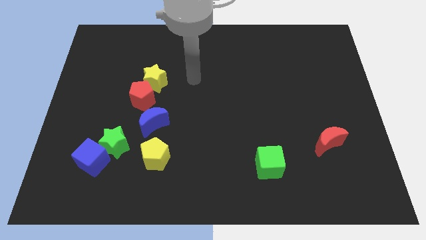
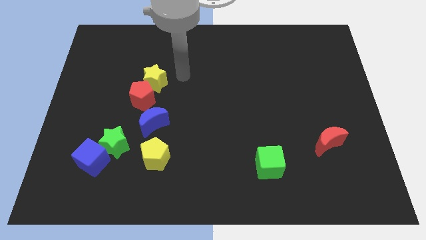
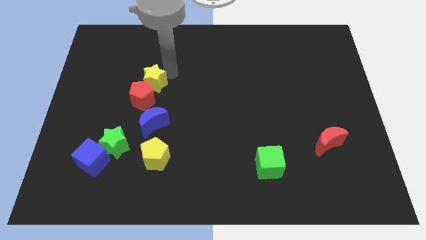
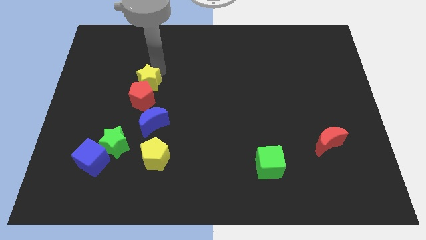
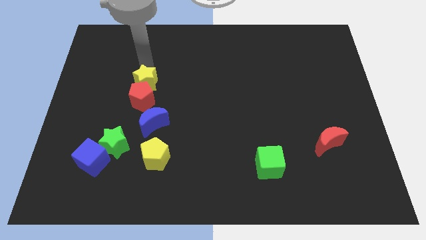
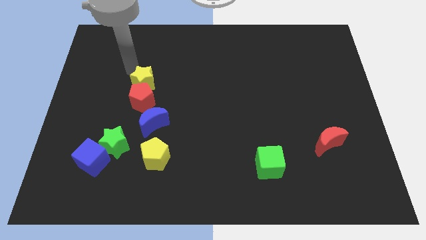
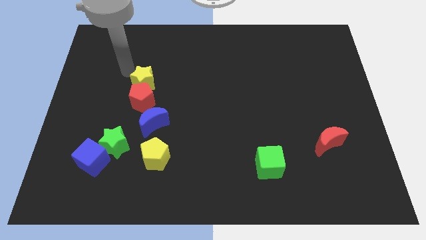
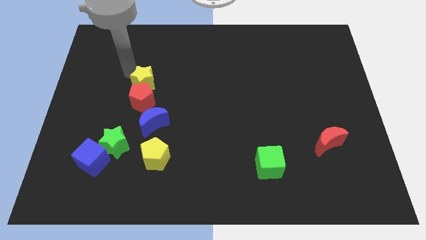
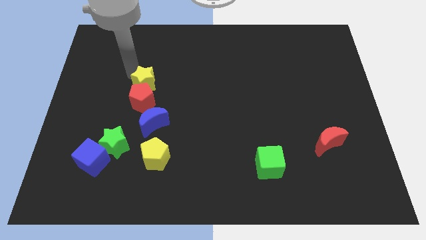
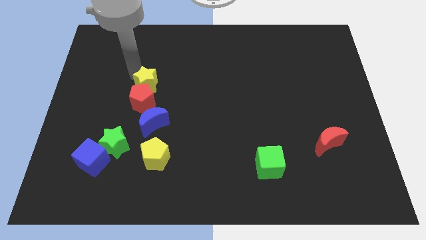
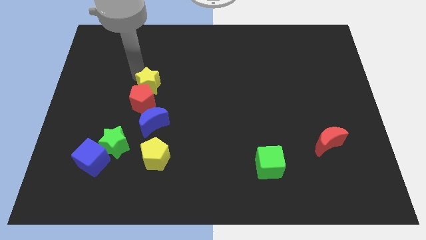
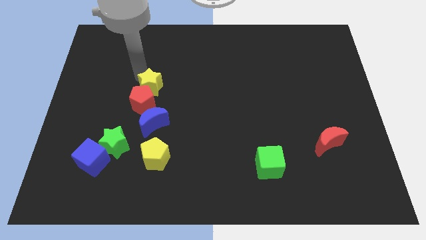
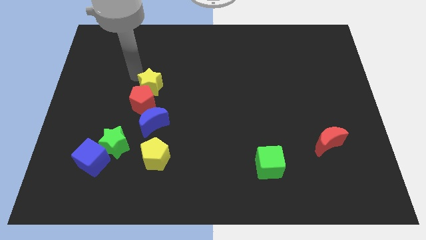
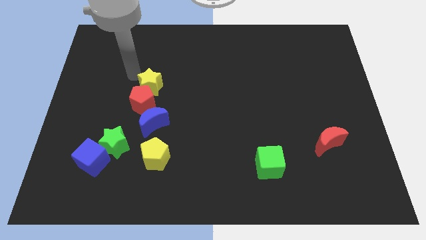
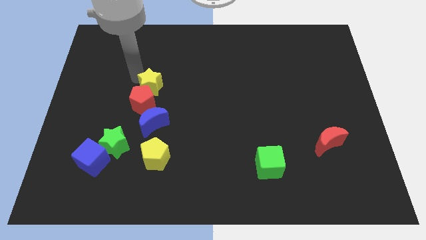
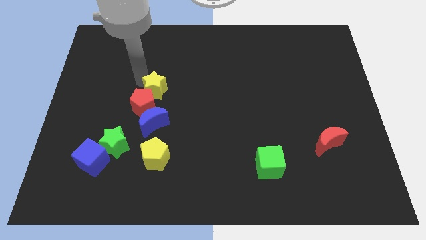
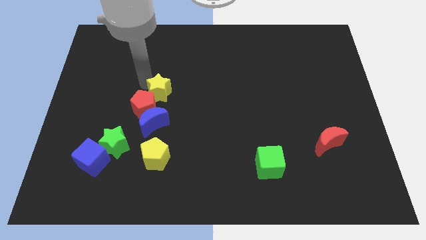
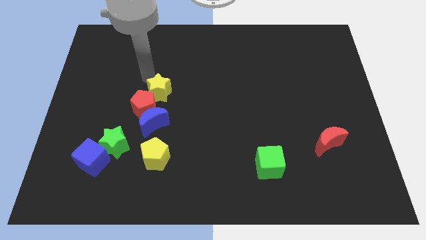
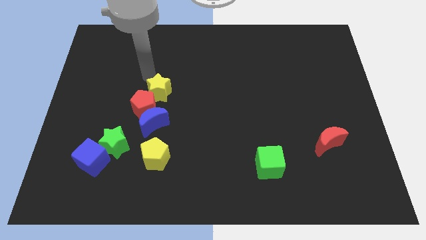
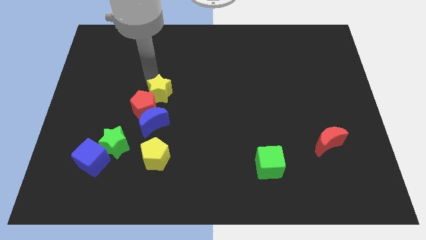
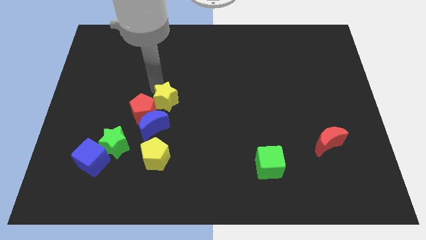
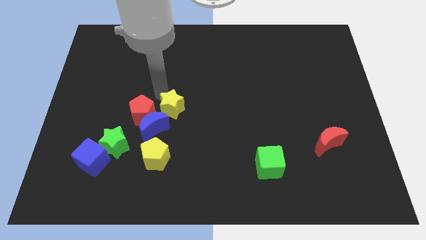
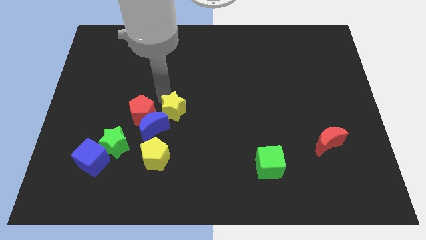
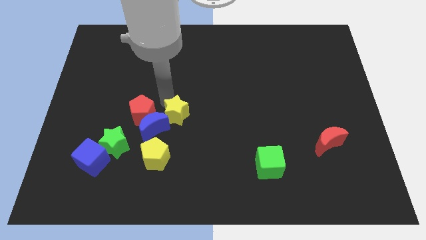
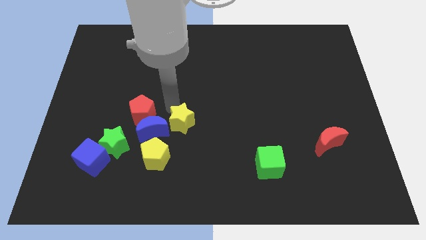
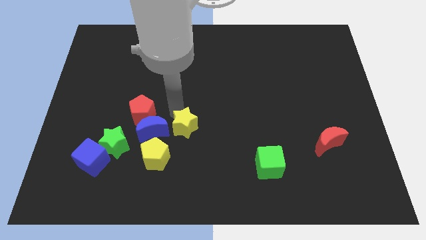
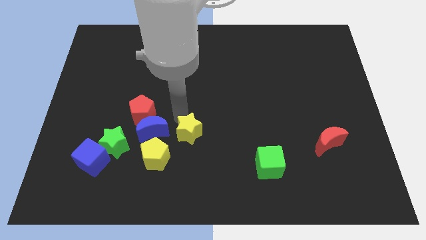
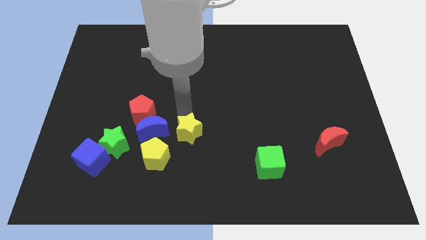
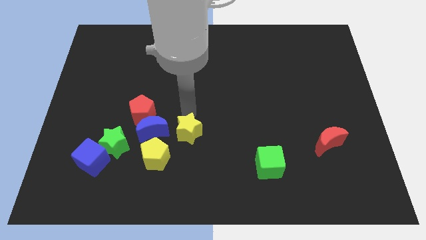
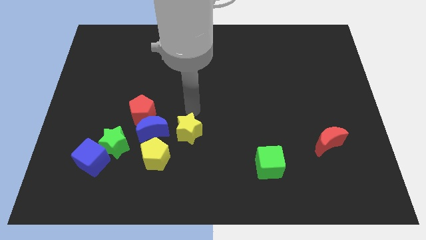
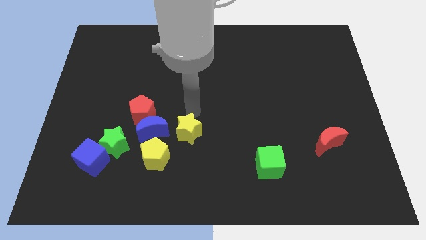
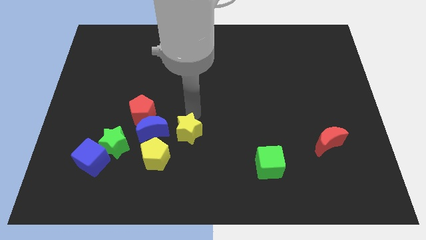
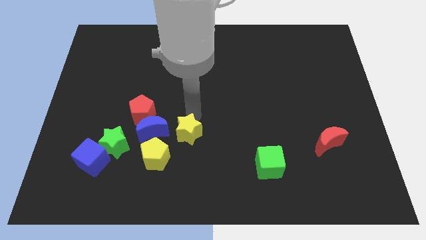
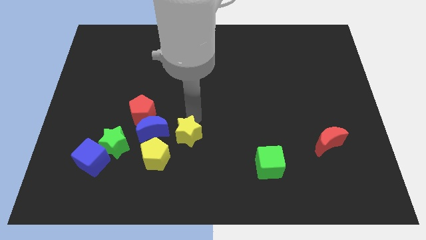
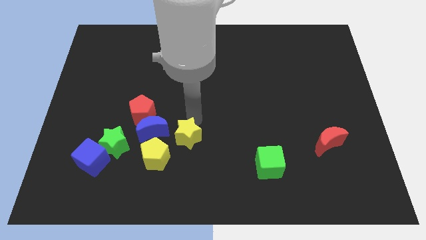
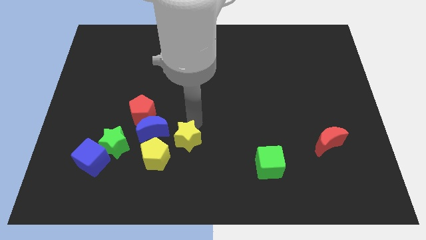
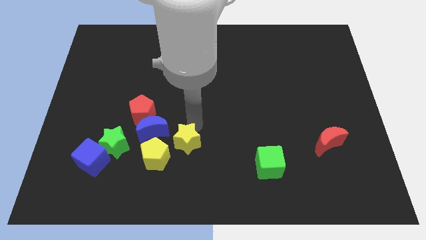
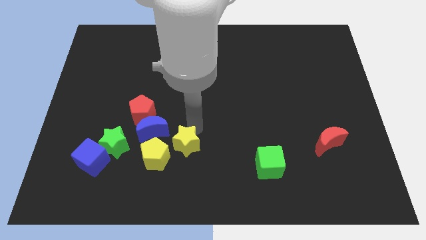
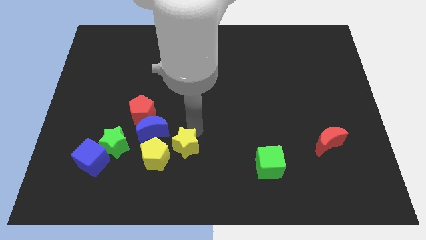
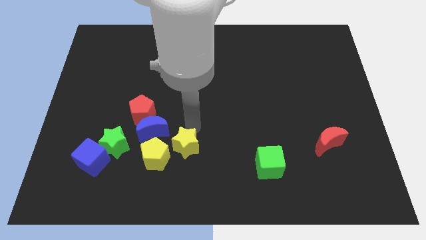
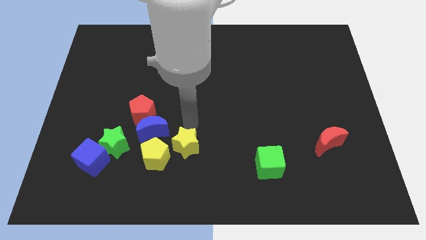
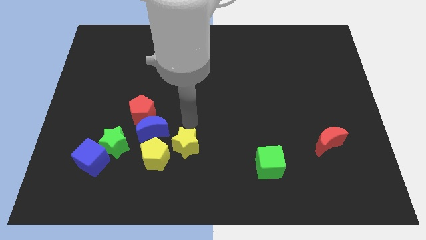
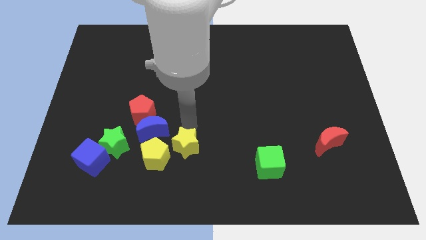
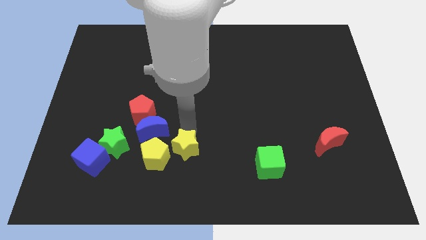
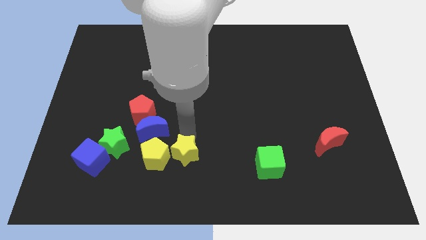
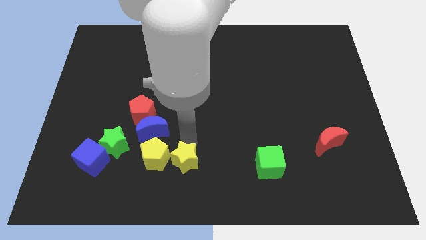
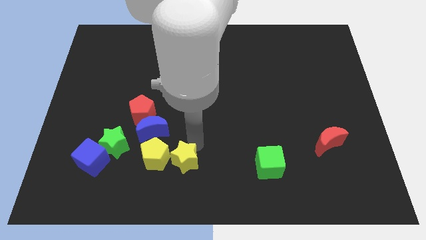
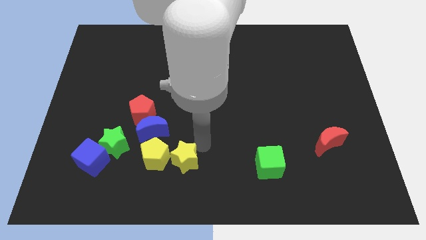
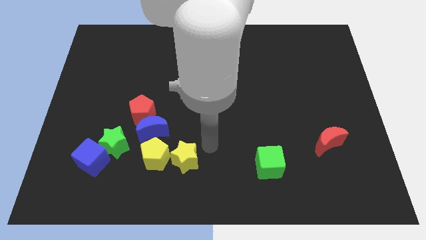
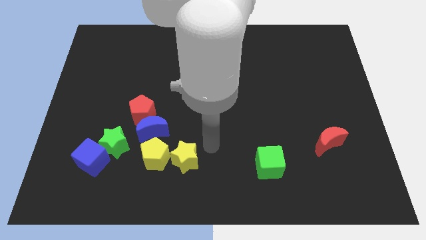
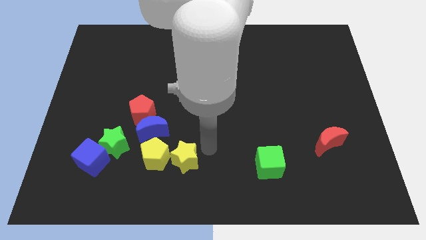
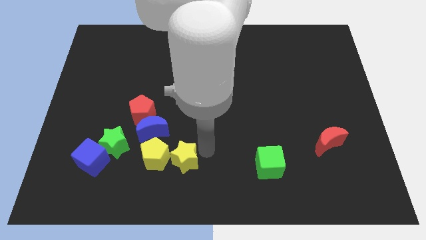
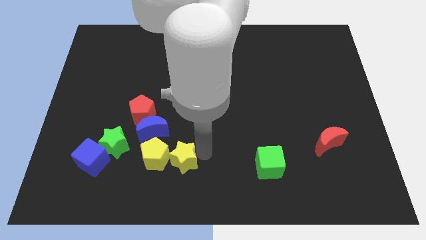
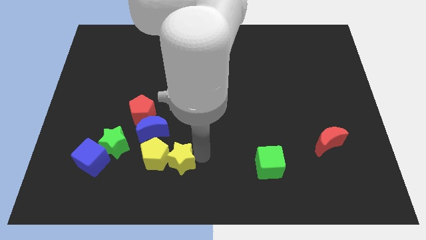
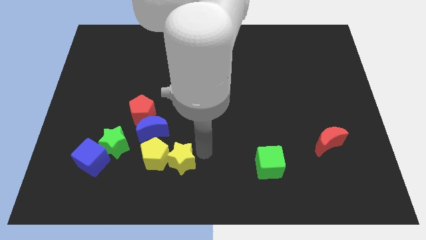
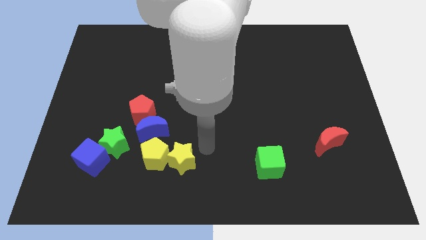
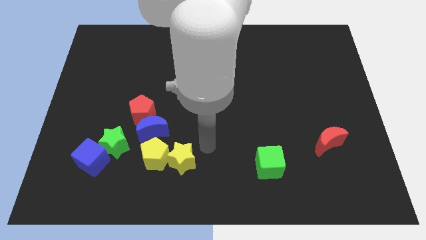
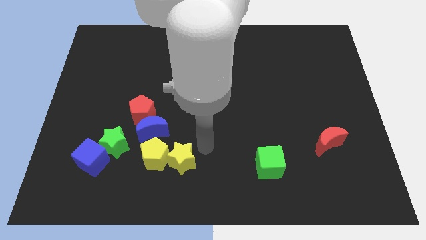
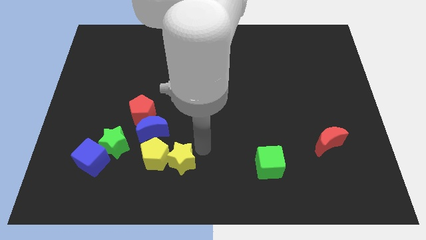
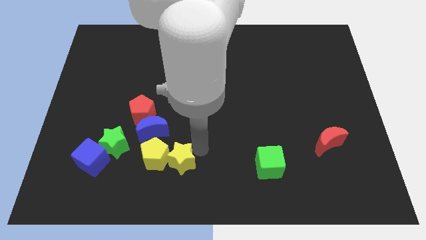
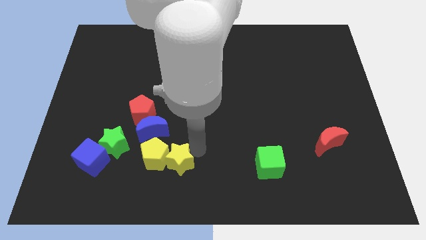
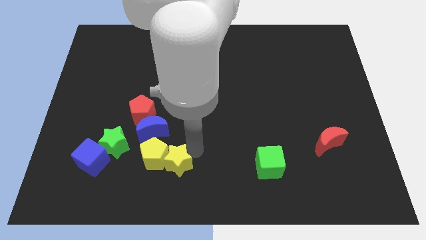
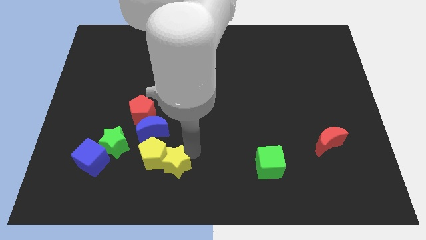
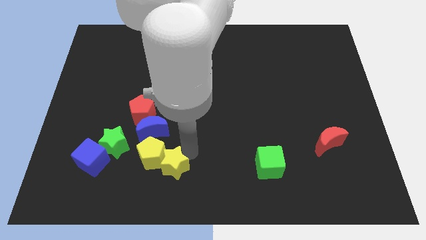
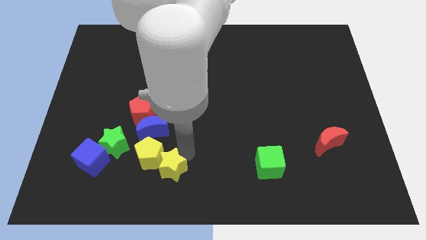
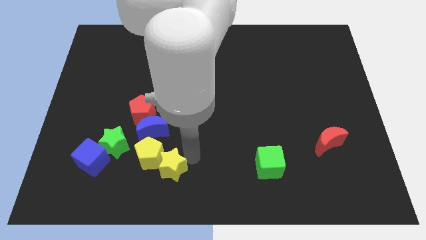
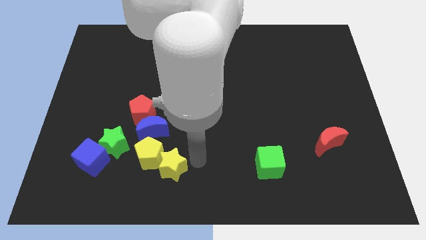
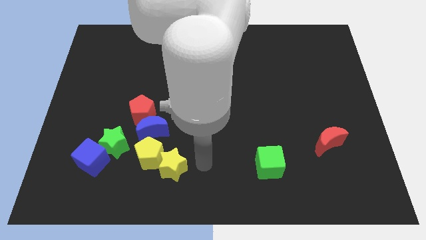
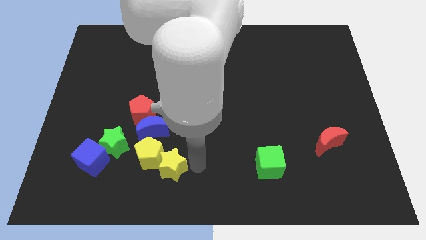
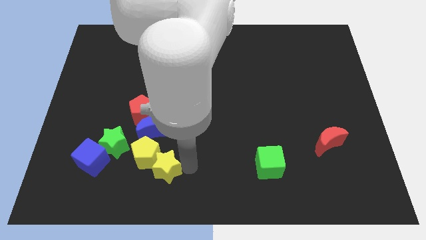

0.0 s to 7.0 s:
move the yellow star to the bottom of the blue moon

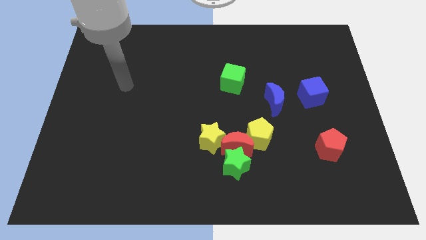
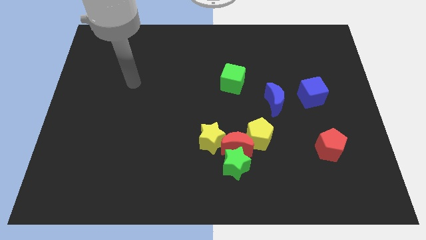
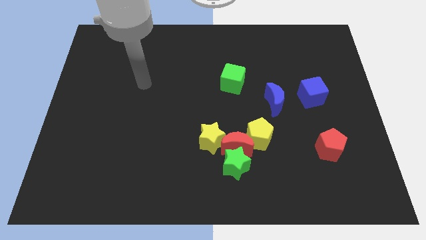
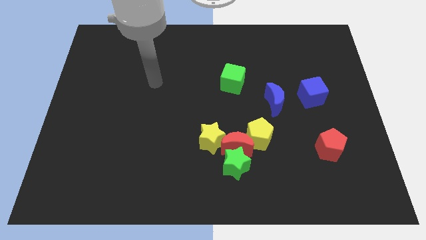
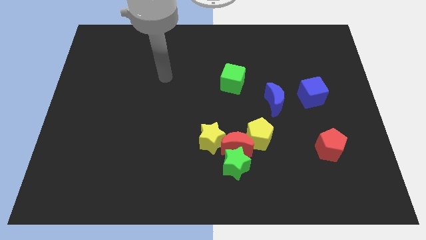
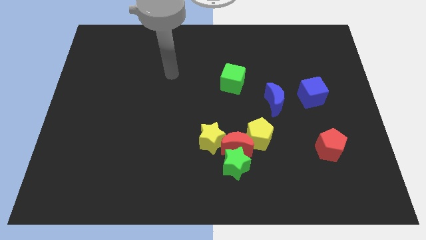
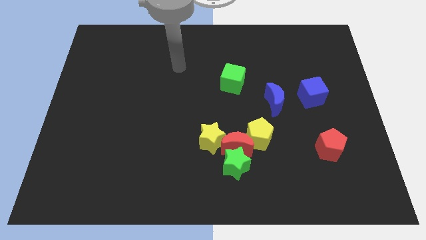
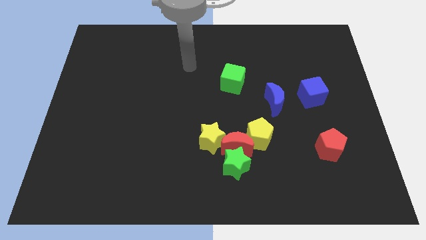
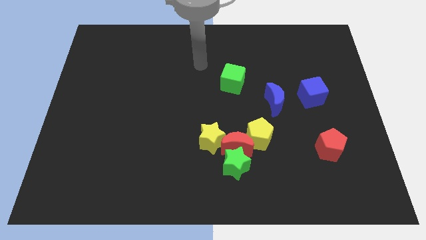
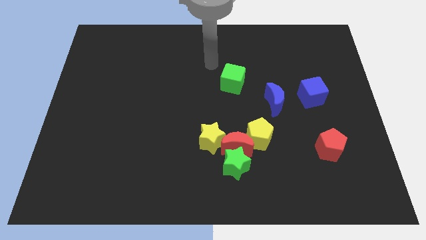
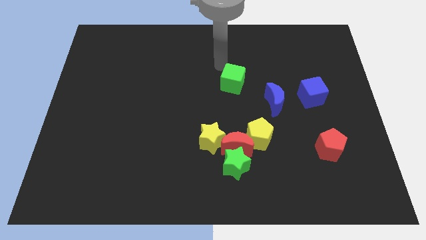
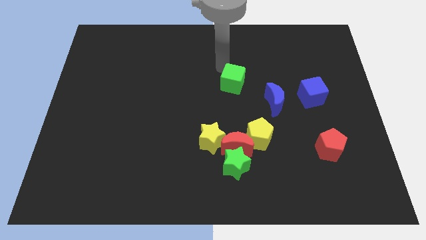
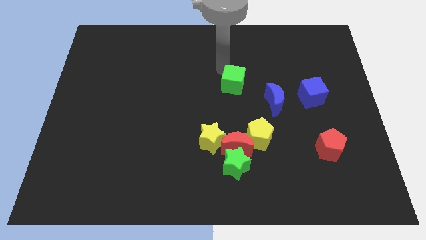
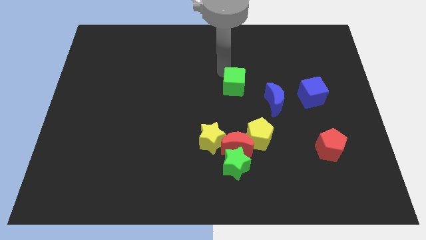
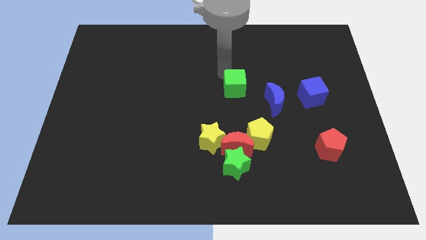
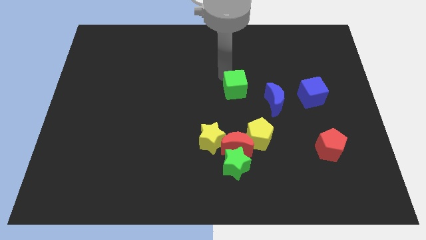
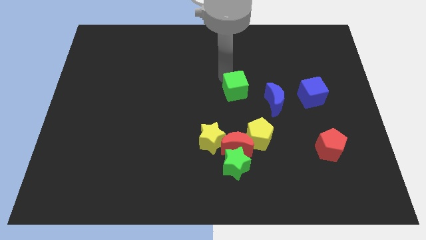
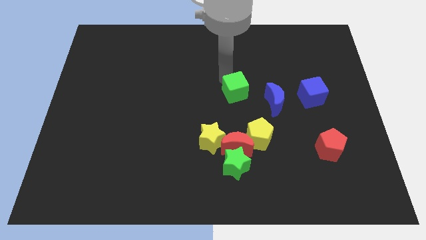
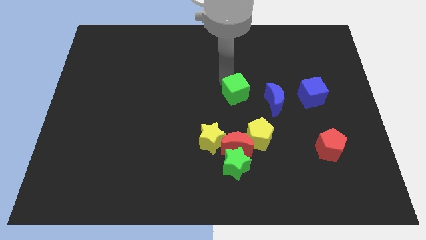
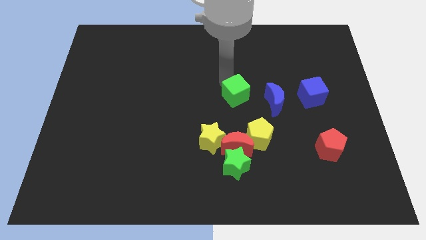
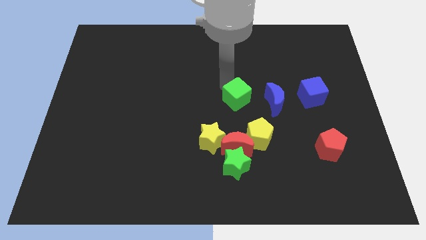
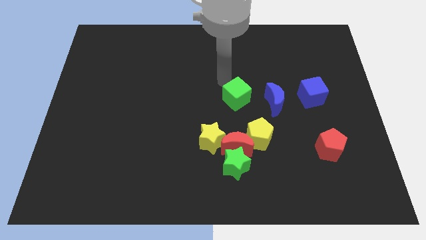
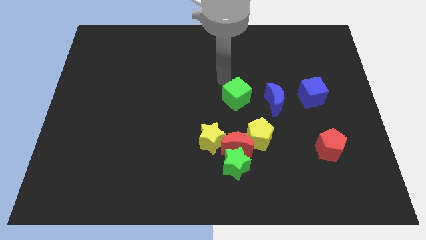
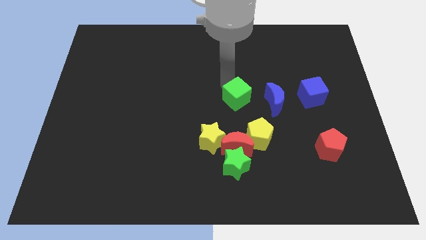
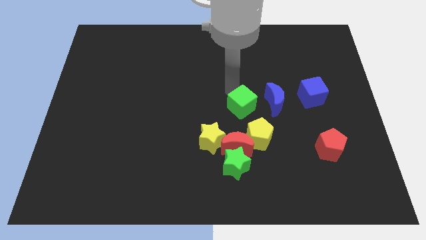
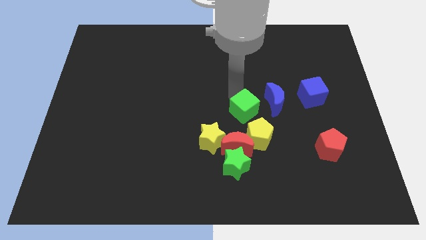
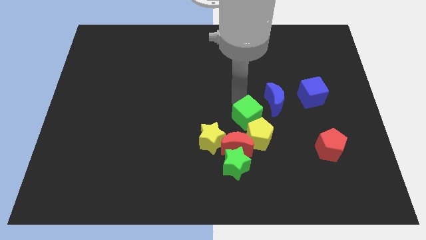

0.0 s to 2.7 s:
slide the green cube to the top right side of the red moon
